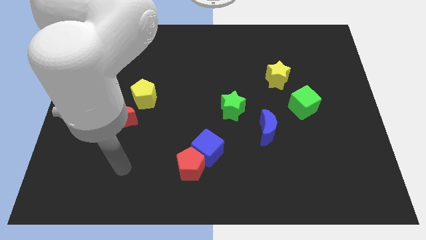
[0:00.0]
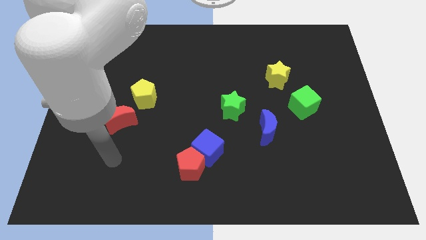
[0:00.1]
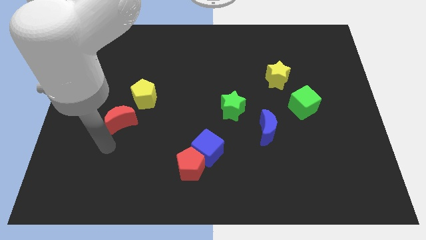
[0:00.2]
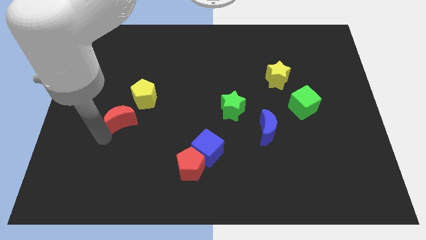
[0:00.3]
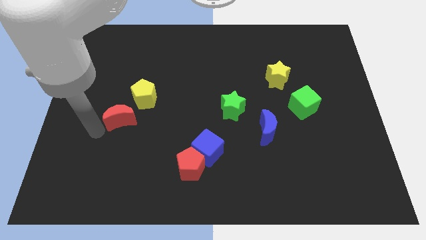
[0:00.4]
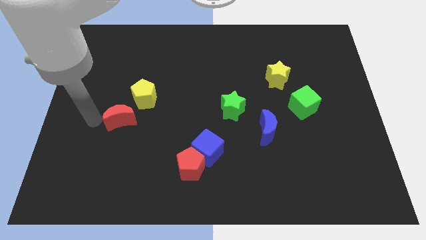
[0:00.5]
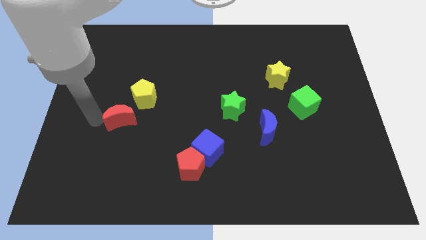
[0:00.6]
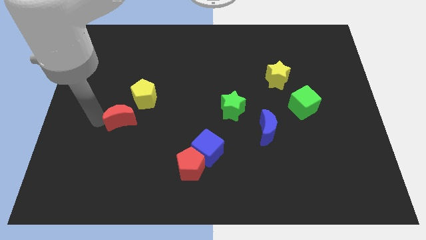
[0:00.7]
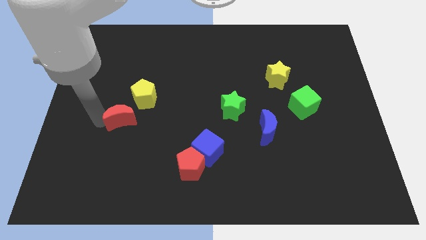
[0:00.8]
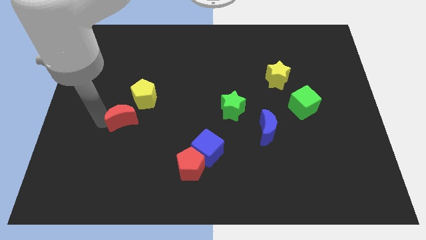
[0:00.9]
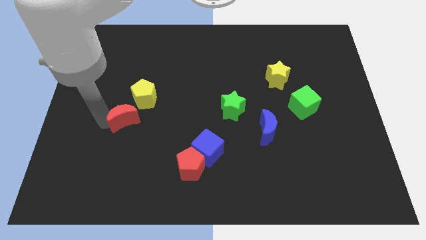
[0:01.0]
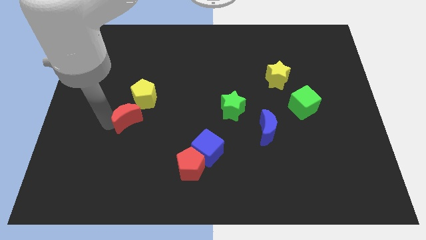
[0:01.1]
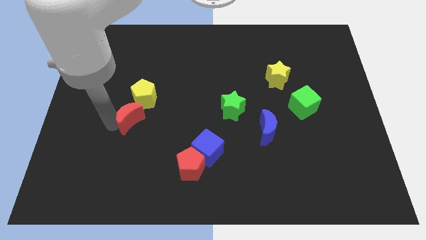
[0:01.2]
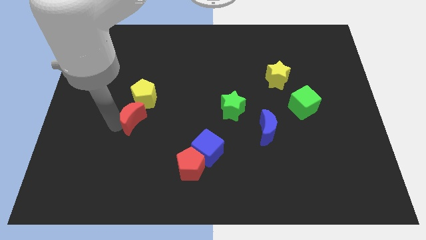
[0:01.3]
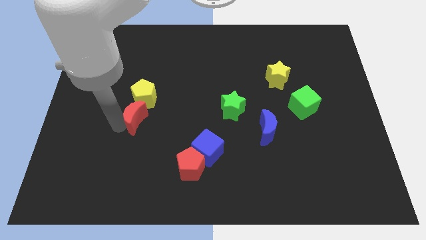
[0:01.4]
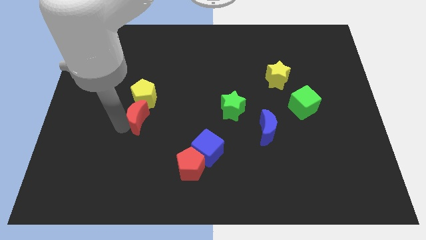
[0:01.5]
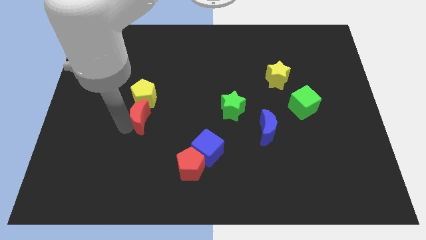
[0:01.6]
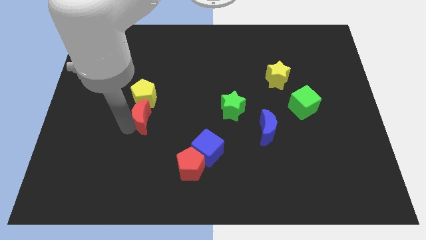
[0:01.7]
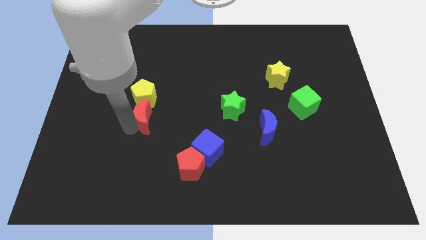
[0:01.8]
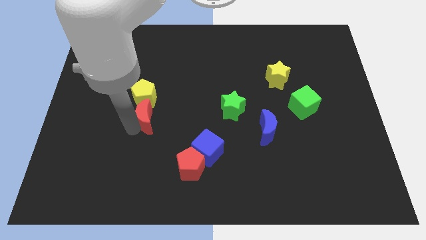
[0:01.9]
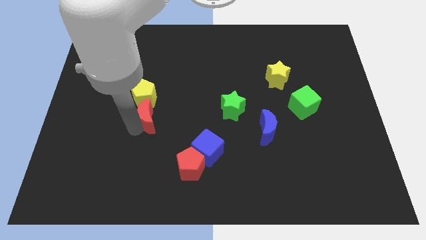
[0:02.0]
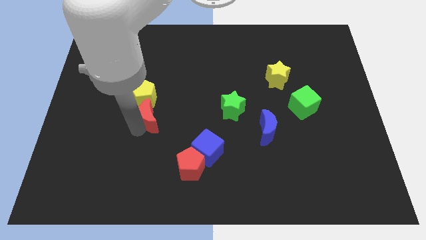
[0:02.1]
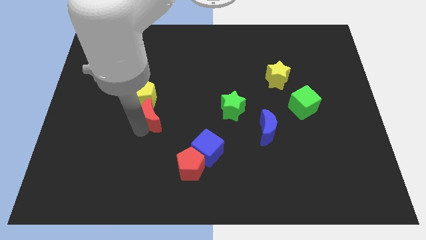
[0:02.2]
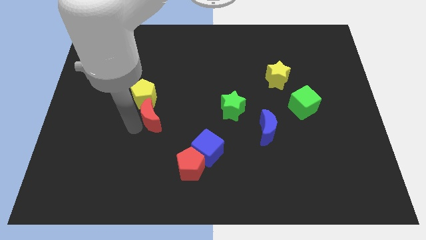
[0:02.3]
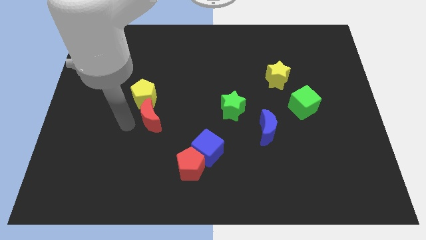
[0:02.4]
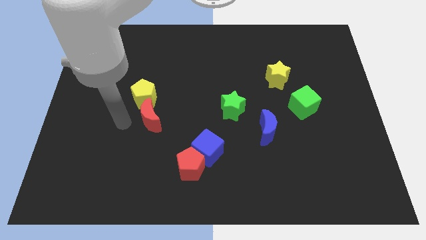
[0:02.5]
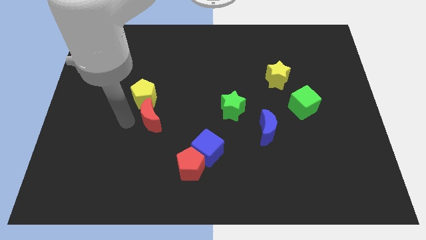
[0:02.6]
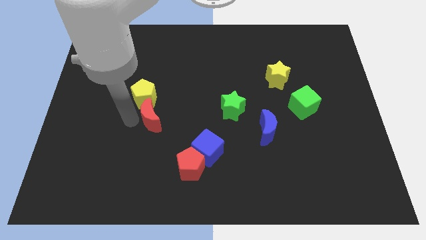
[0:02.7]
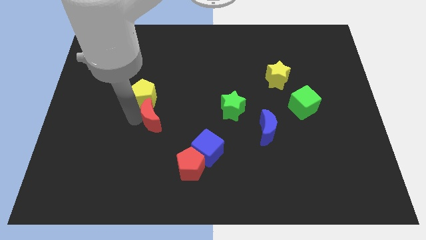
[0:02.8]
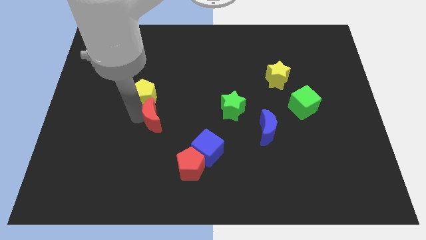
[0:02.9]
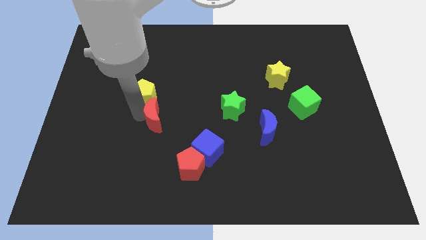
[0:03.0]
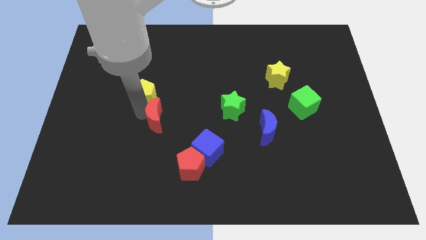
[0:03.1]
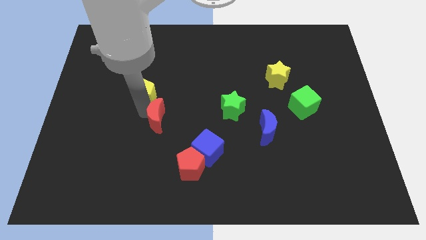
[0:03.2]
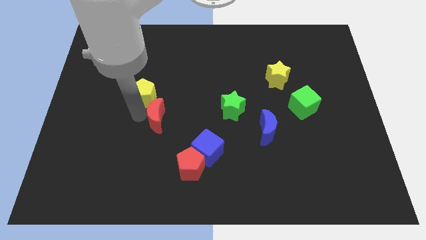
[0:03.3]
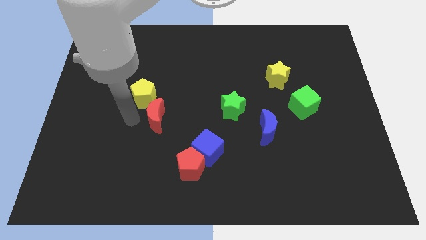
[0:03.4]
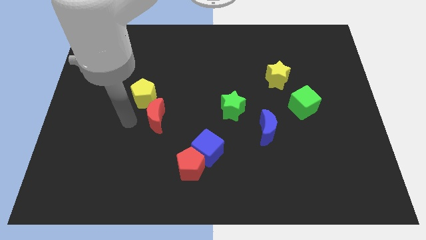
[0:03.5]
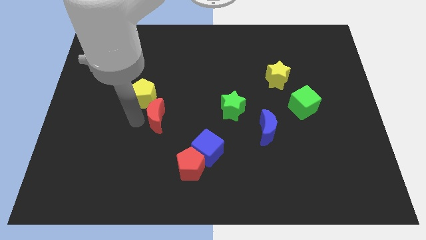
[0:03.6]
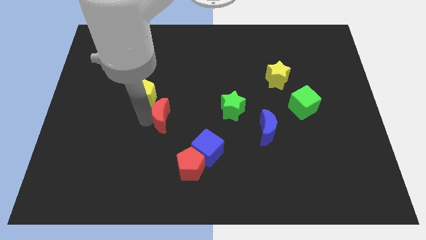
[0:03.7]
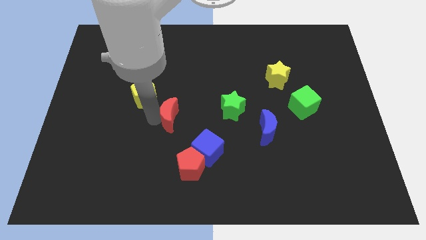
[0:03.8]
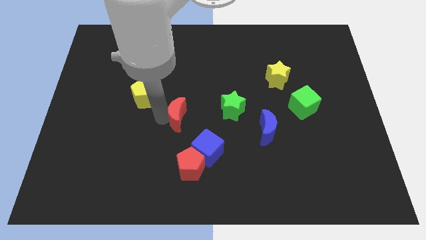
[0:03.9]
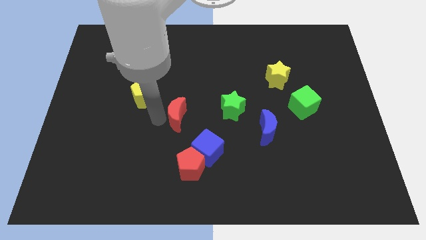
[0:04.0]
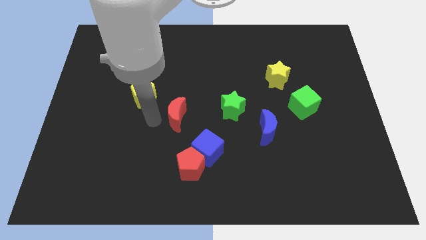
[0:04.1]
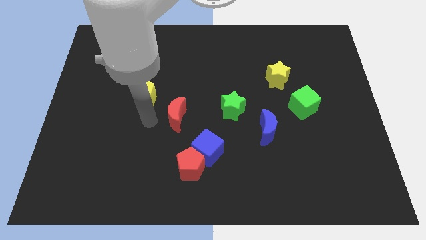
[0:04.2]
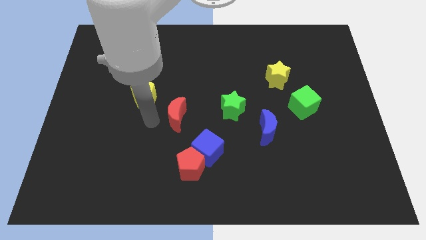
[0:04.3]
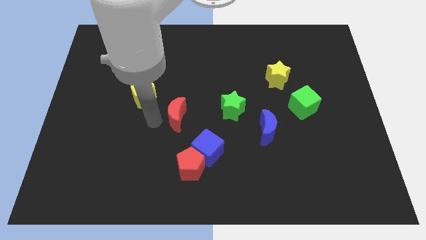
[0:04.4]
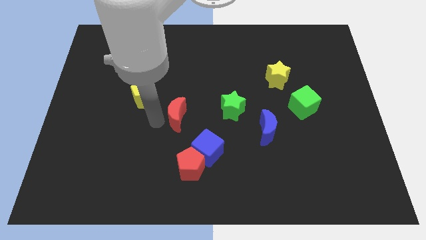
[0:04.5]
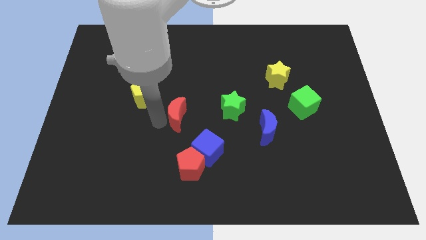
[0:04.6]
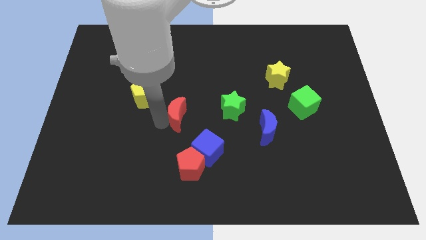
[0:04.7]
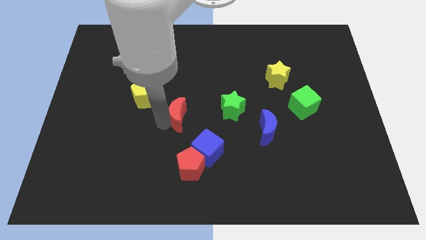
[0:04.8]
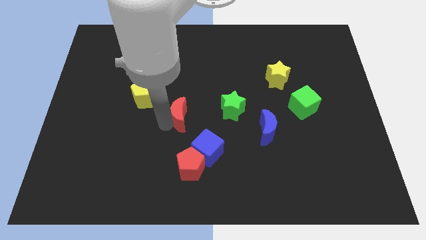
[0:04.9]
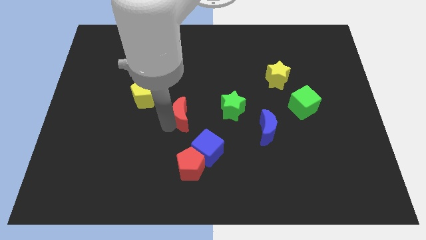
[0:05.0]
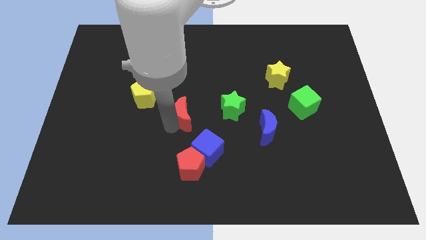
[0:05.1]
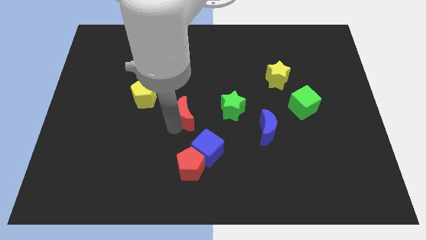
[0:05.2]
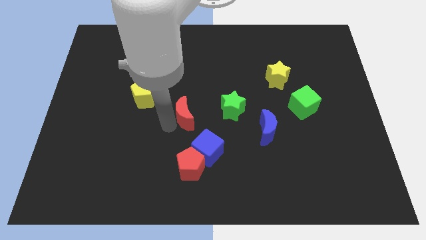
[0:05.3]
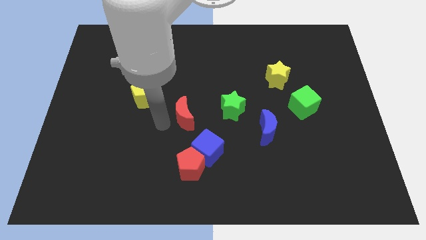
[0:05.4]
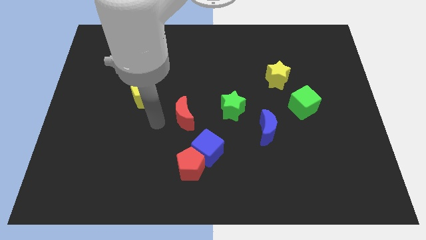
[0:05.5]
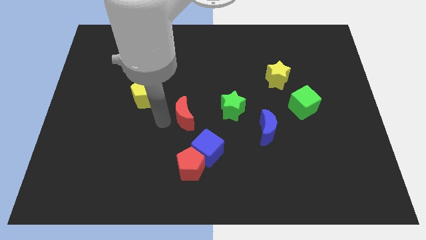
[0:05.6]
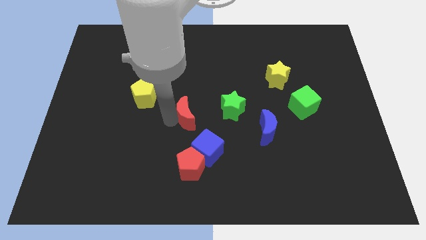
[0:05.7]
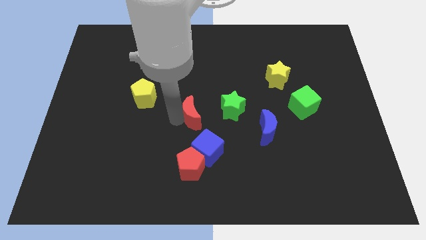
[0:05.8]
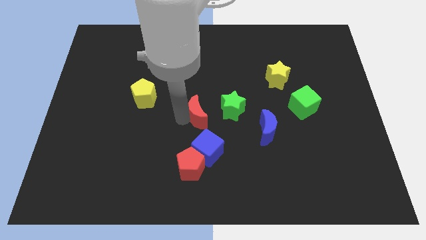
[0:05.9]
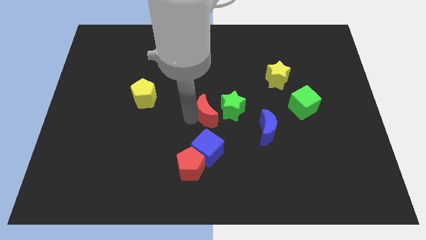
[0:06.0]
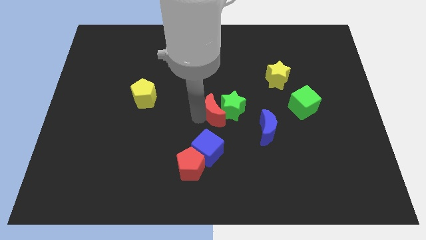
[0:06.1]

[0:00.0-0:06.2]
move the red moon next to the green star

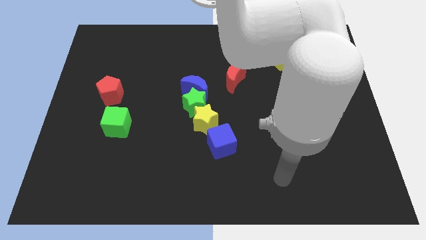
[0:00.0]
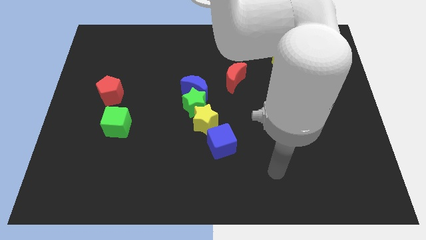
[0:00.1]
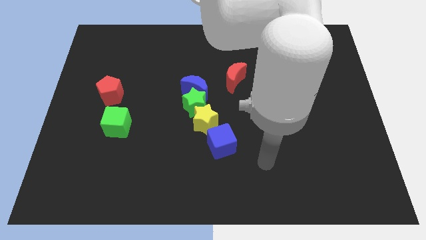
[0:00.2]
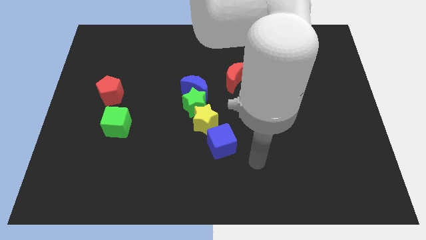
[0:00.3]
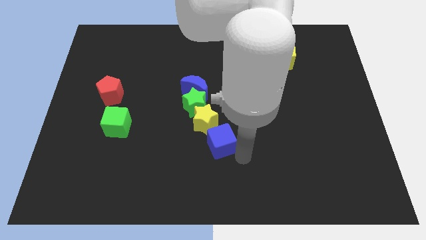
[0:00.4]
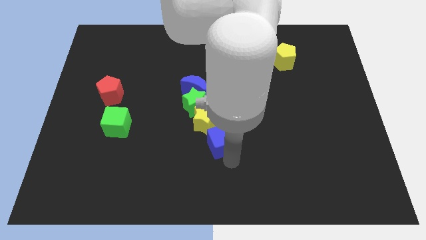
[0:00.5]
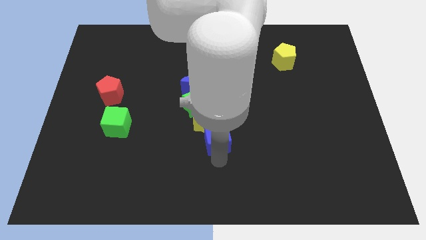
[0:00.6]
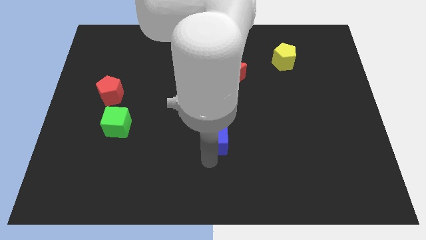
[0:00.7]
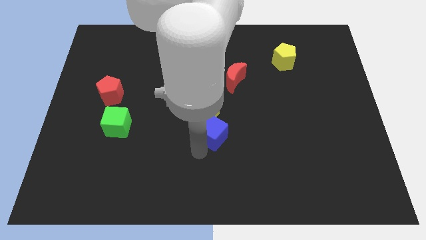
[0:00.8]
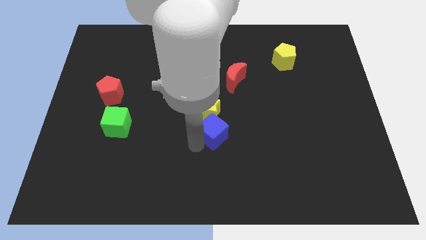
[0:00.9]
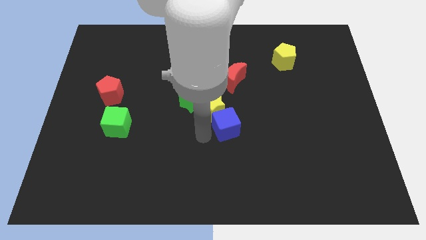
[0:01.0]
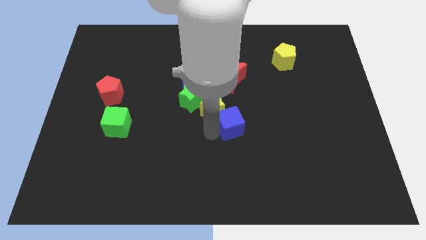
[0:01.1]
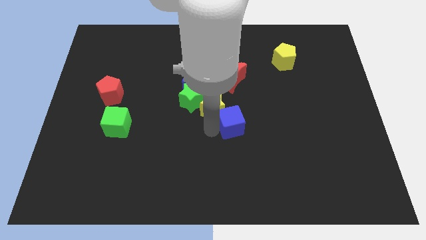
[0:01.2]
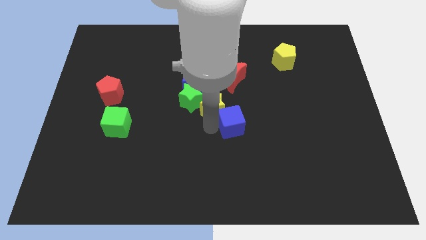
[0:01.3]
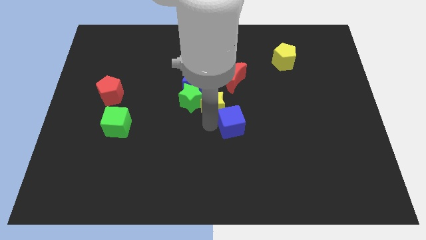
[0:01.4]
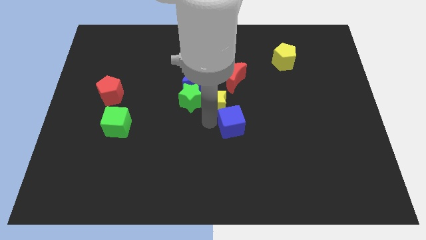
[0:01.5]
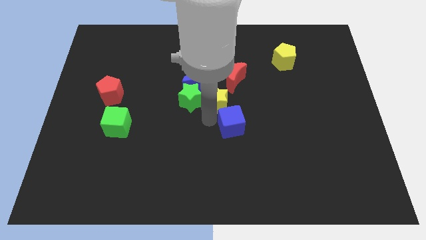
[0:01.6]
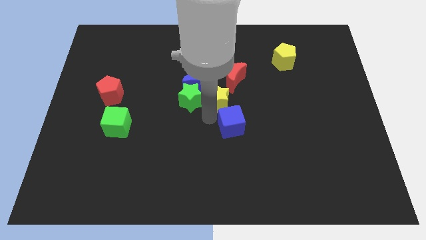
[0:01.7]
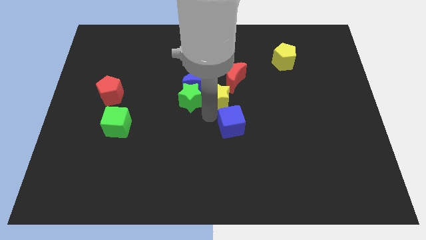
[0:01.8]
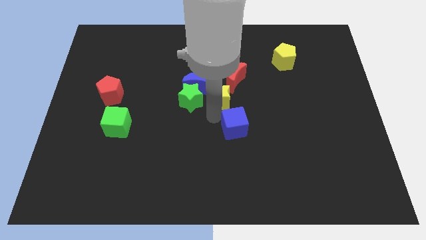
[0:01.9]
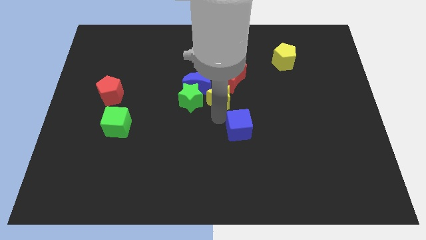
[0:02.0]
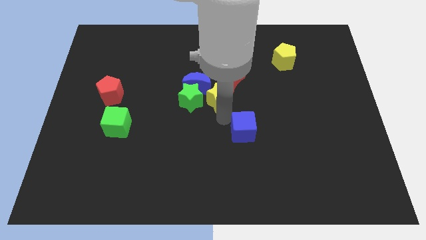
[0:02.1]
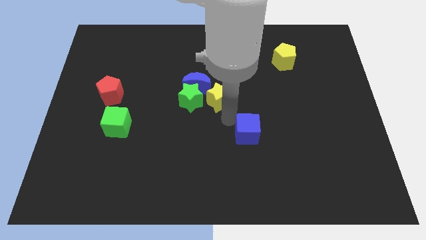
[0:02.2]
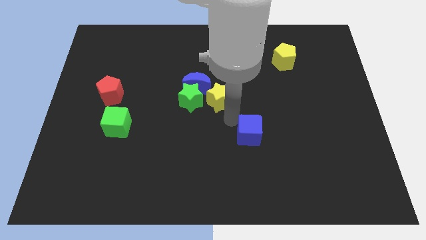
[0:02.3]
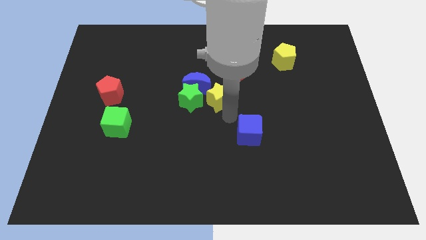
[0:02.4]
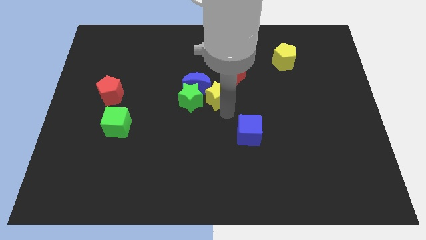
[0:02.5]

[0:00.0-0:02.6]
move the yellow star close to the blue moon
